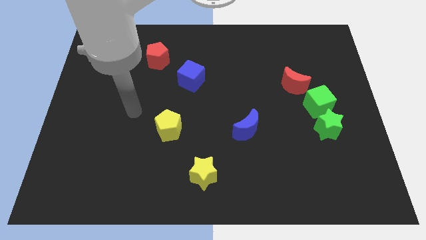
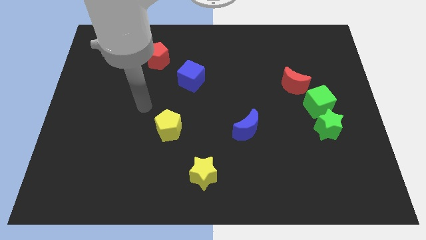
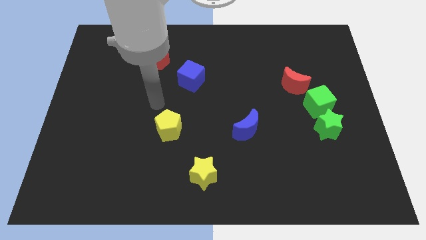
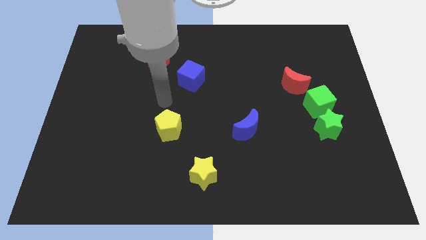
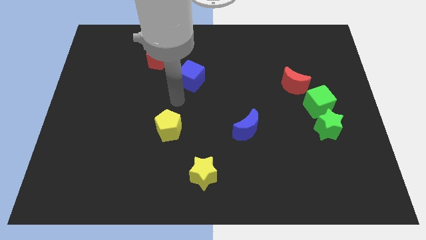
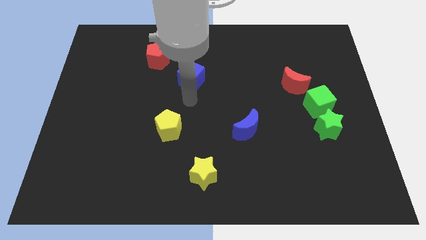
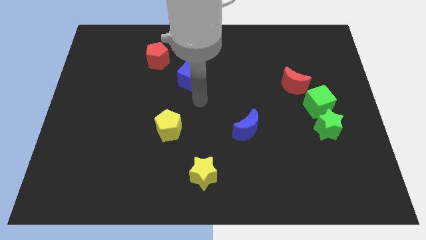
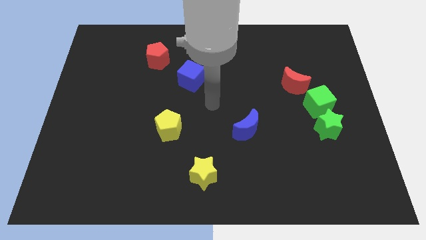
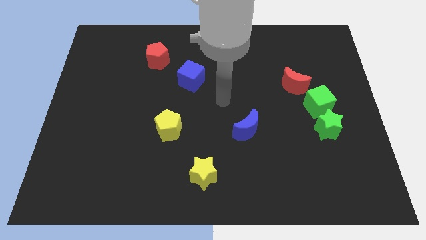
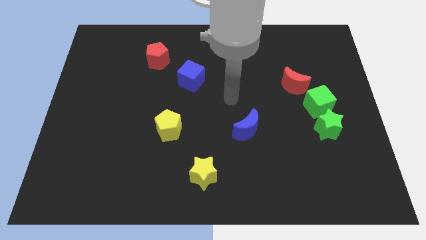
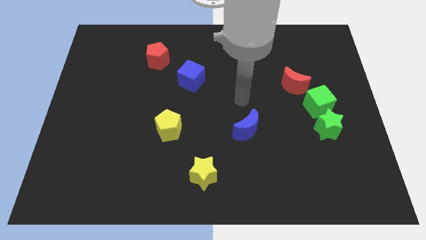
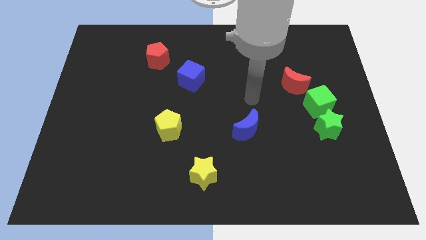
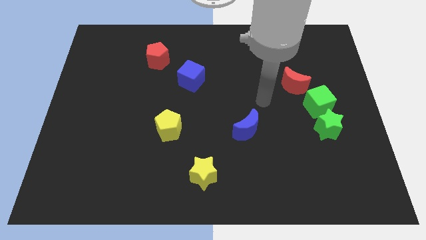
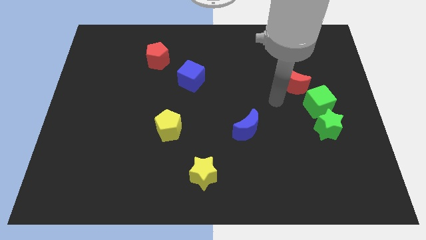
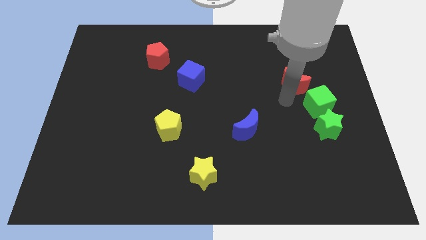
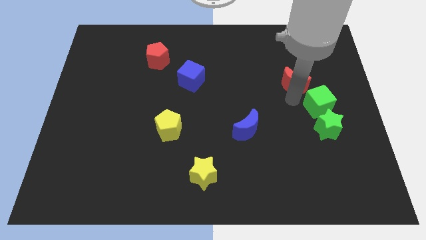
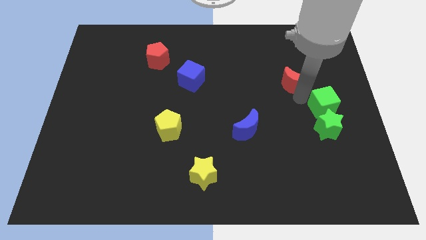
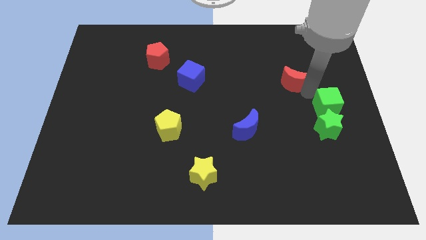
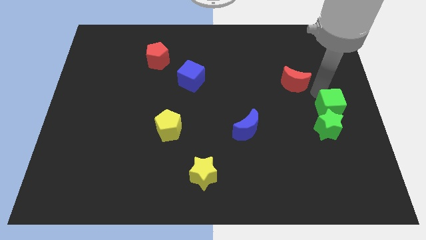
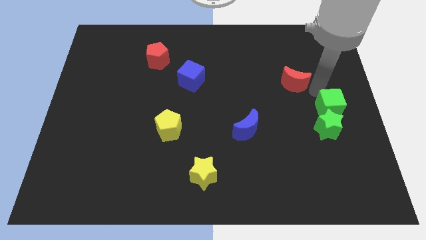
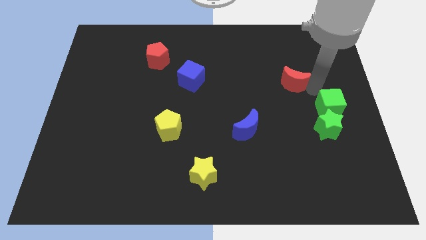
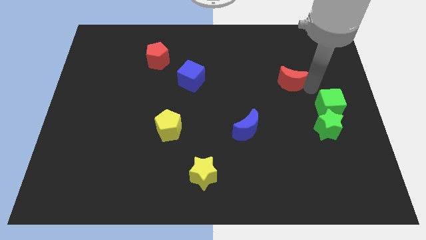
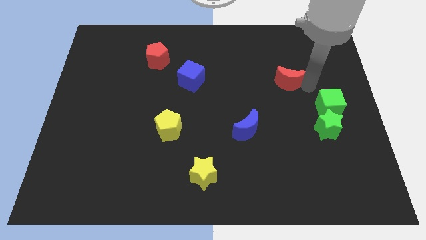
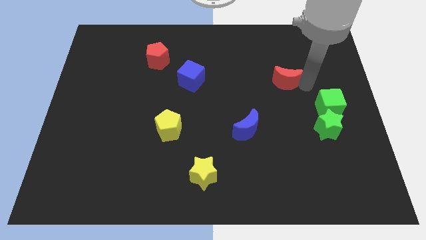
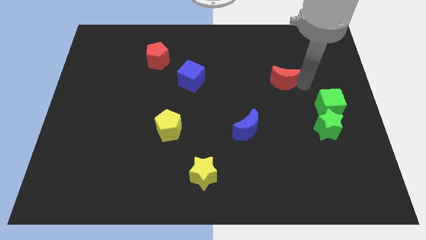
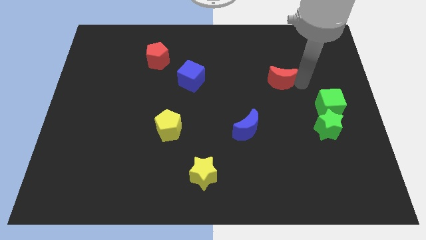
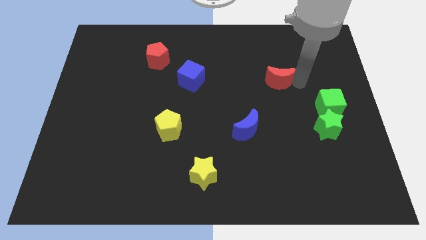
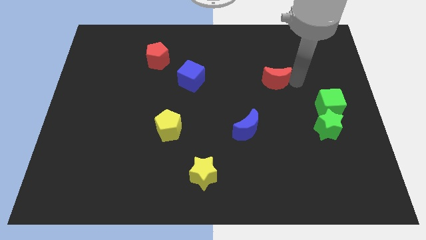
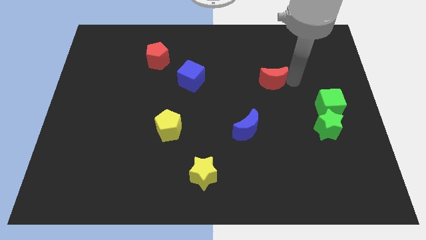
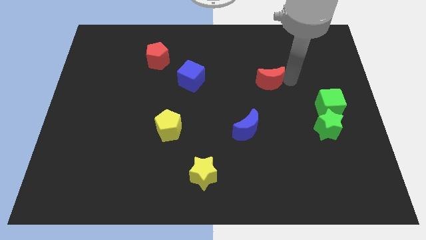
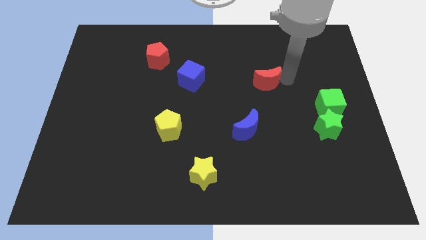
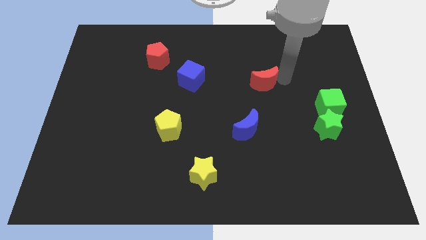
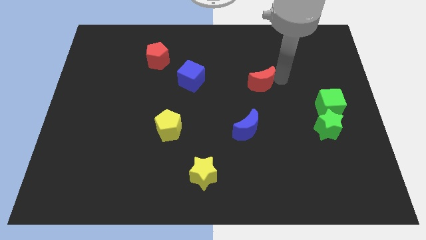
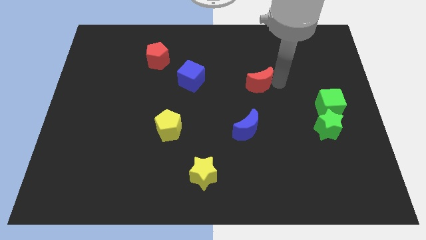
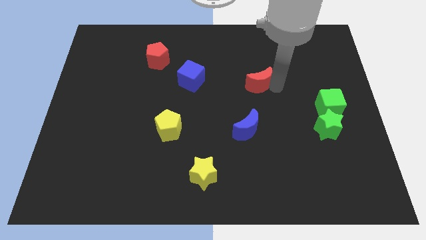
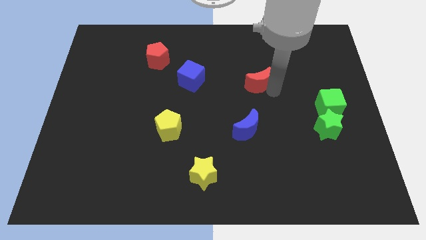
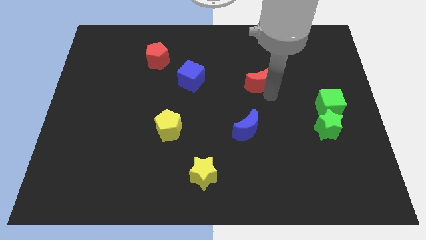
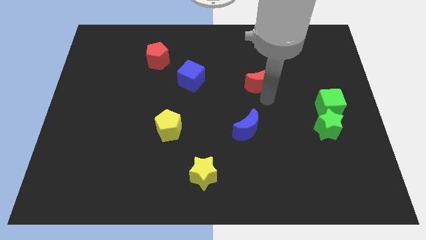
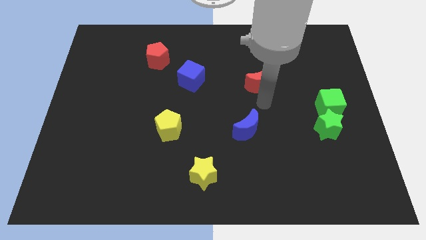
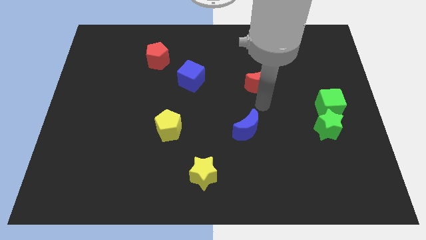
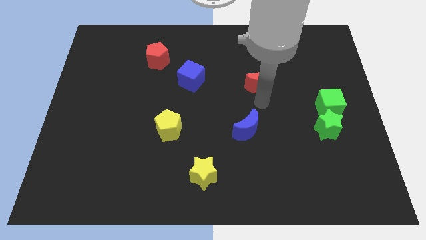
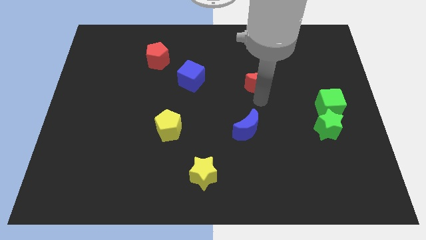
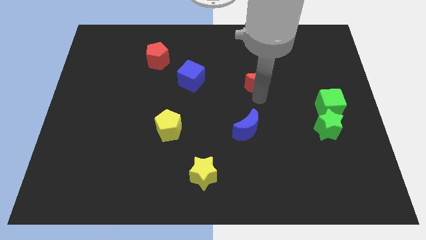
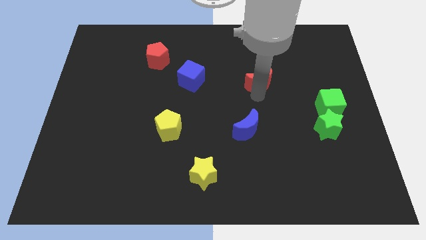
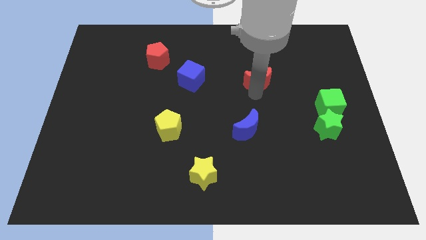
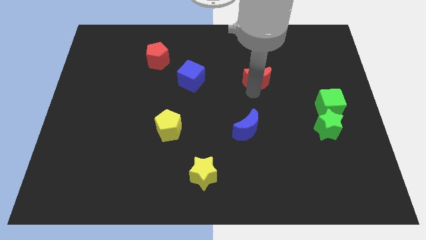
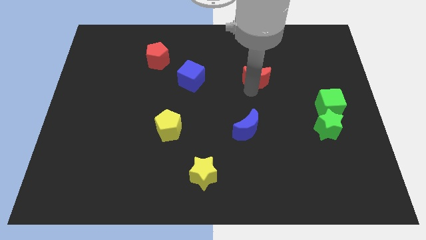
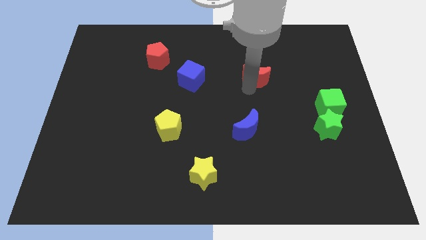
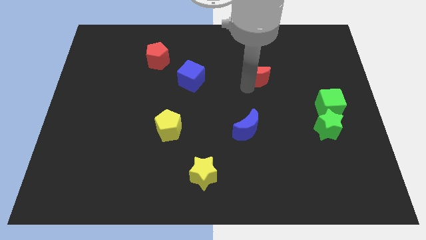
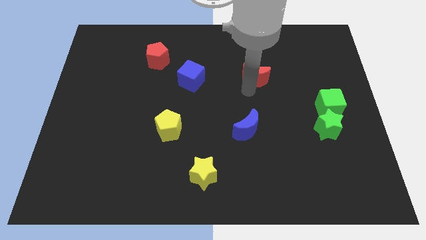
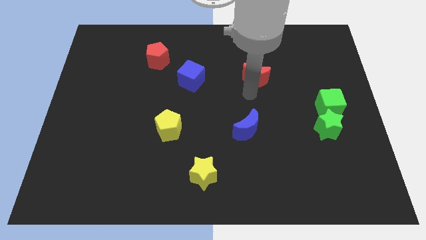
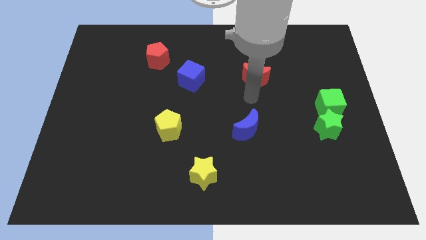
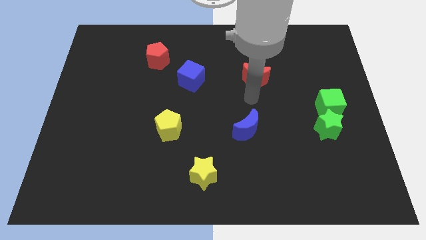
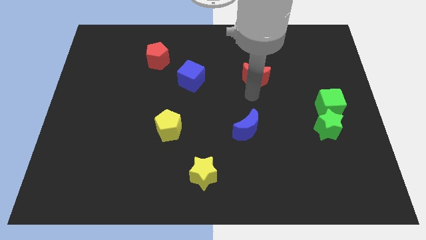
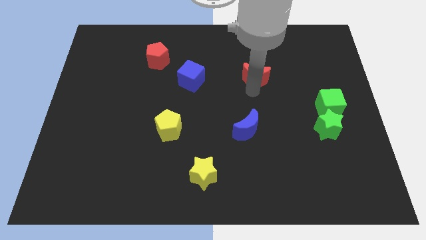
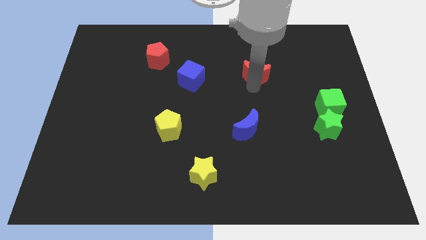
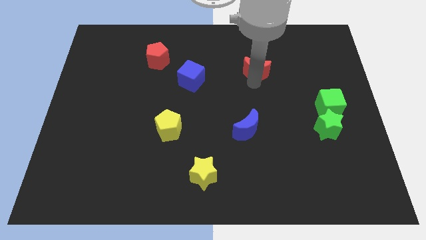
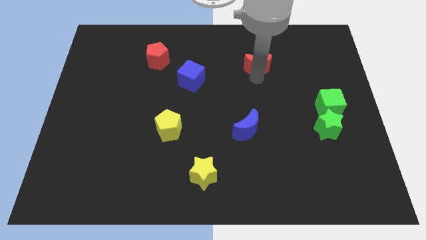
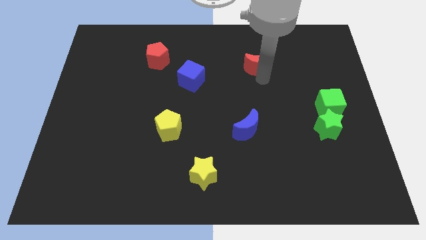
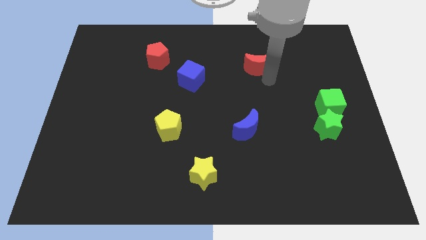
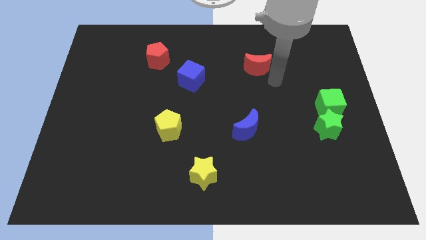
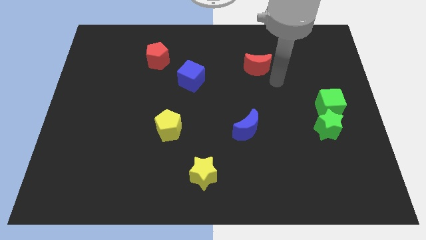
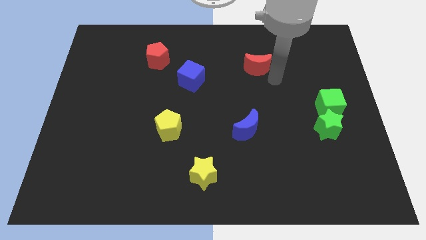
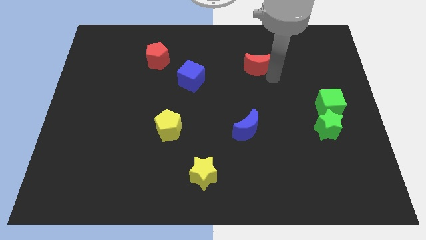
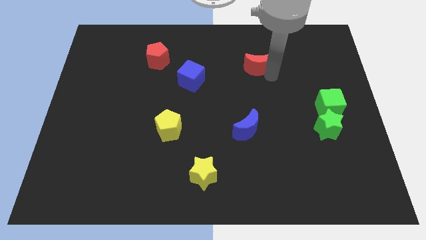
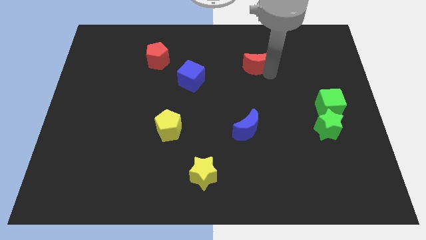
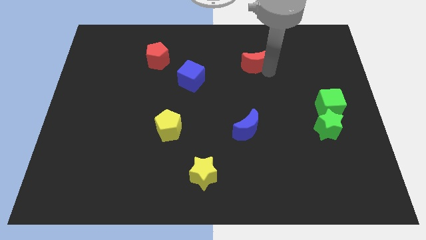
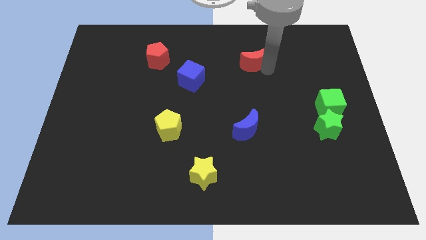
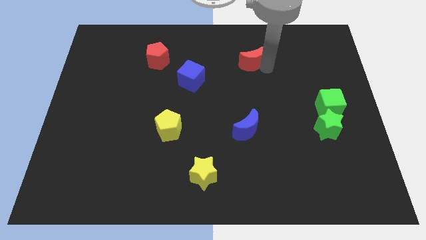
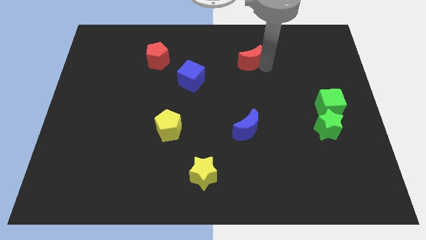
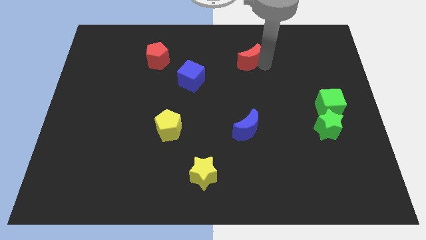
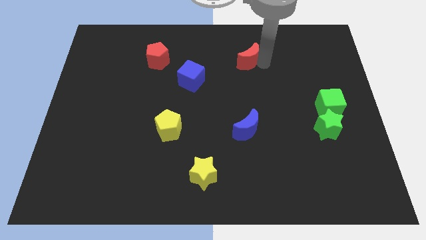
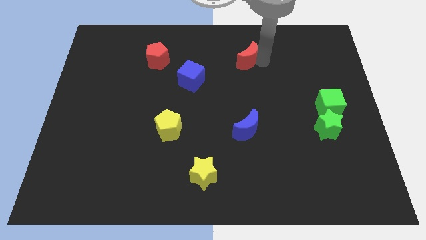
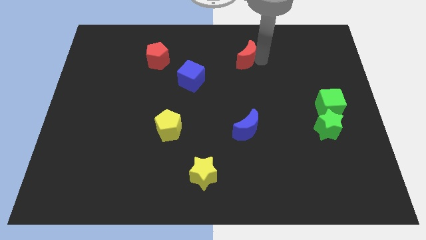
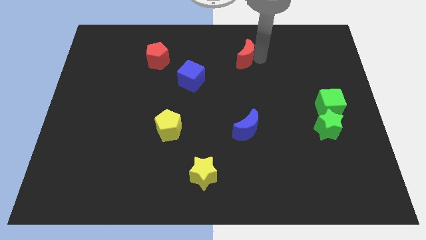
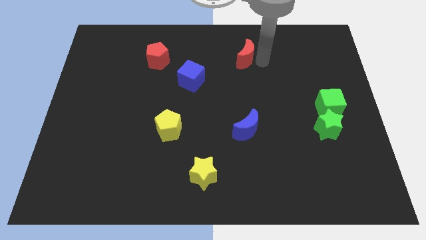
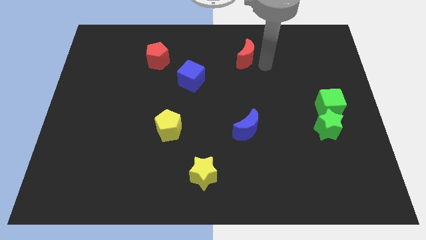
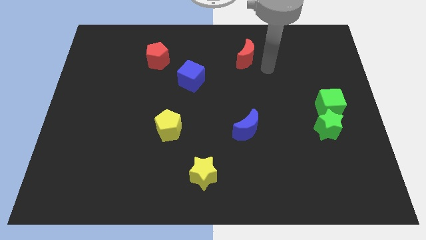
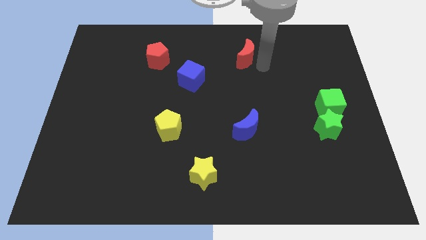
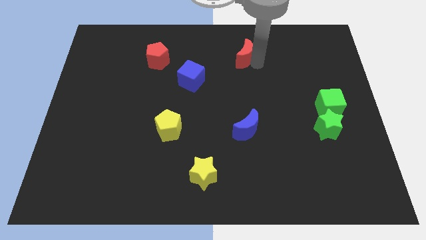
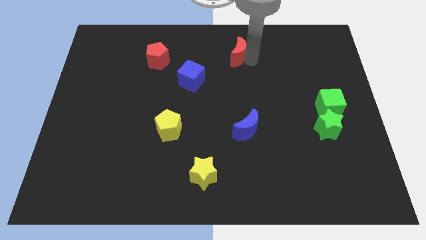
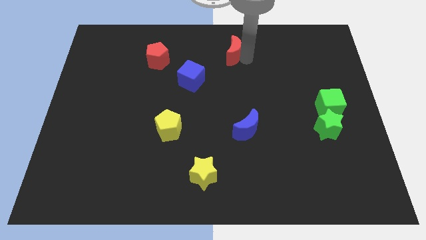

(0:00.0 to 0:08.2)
slide the red moon to the towards your base
